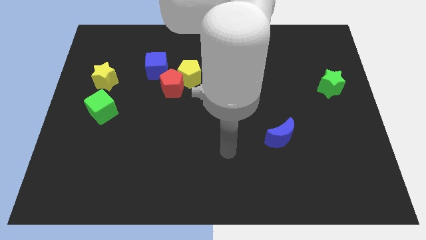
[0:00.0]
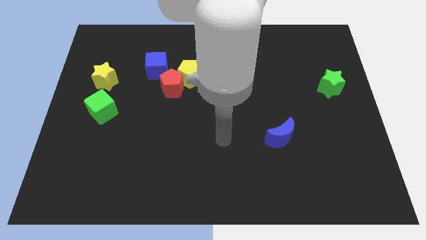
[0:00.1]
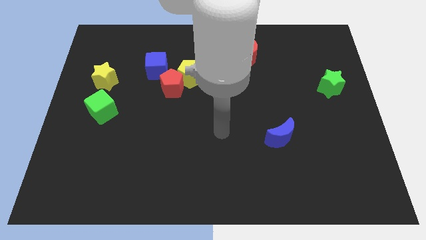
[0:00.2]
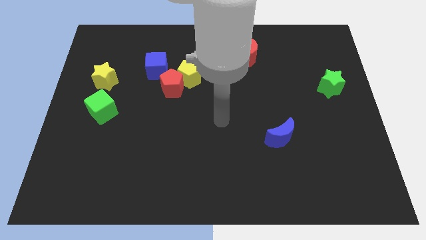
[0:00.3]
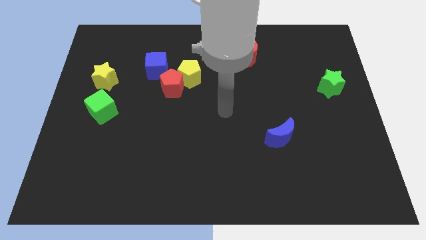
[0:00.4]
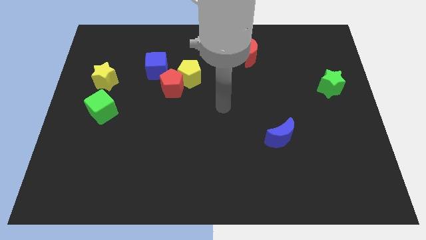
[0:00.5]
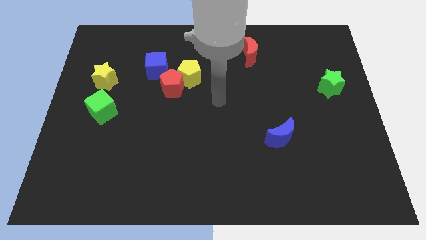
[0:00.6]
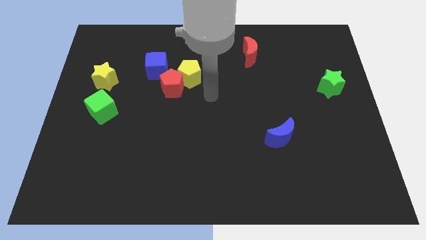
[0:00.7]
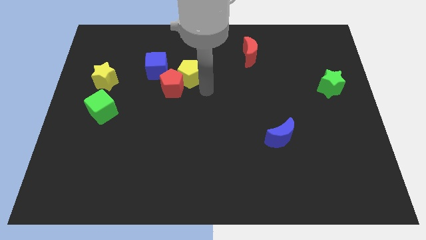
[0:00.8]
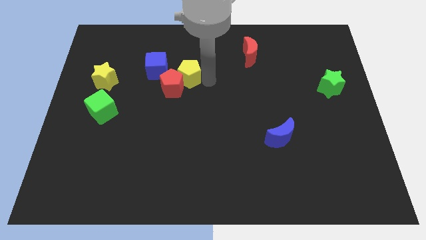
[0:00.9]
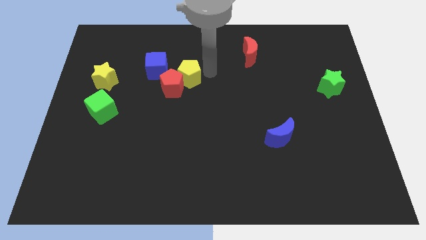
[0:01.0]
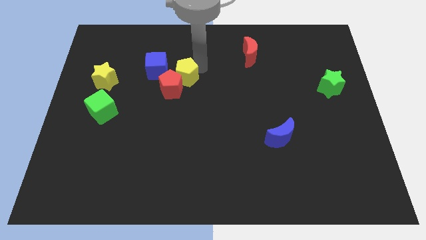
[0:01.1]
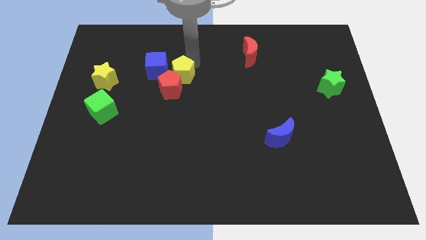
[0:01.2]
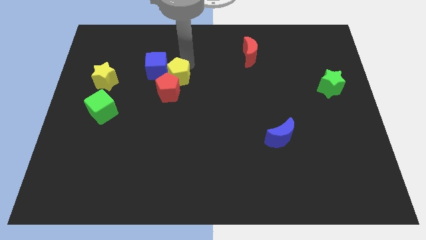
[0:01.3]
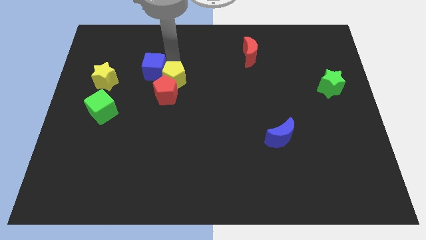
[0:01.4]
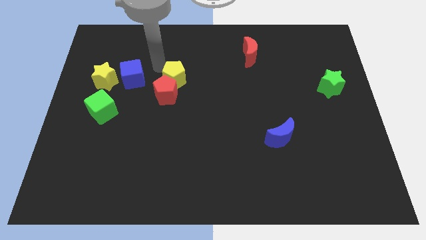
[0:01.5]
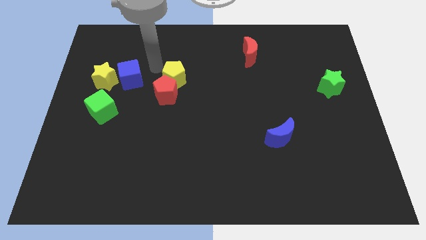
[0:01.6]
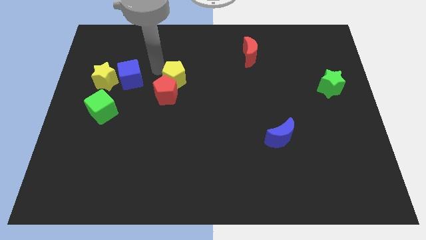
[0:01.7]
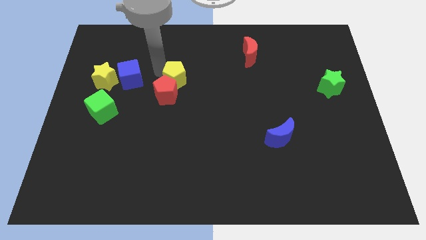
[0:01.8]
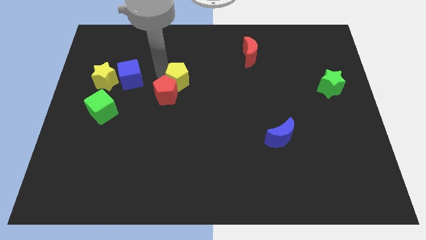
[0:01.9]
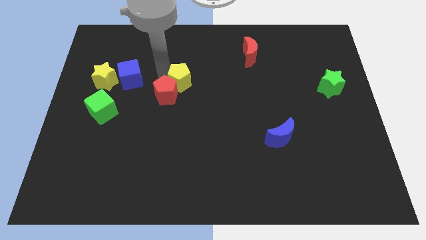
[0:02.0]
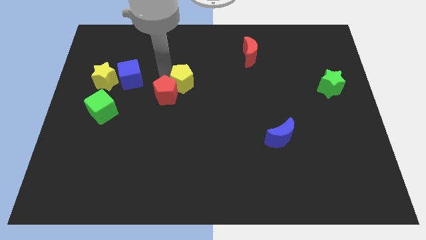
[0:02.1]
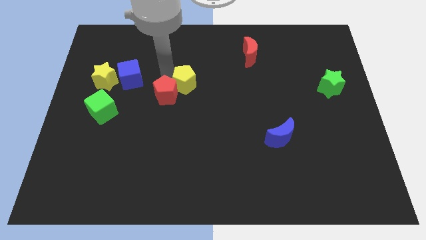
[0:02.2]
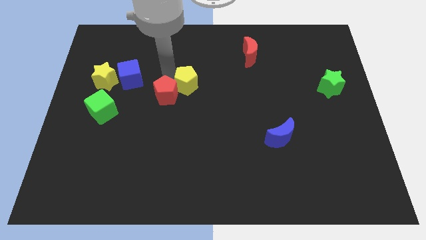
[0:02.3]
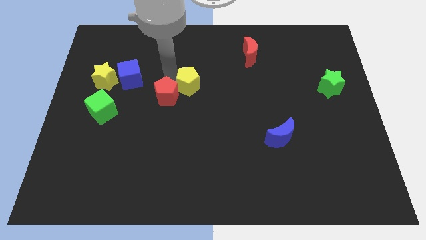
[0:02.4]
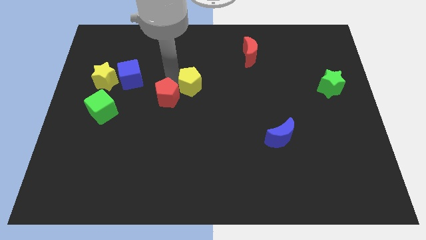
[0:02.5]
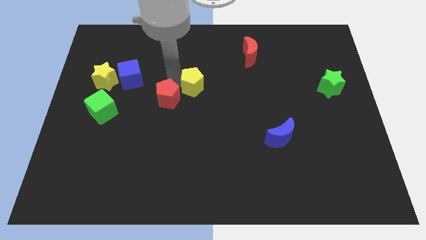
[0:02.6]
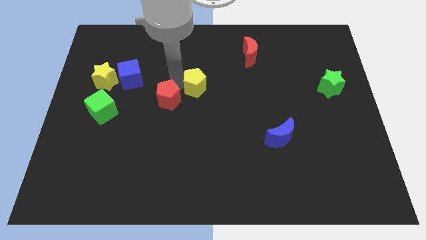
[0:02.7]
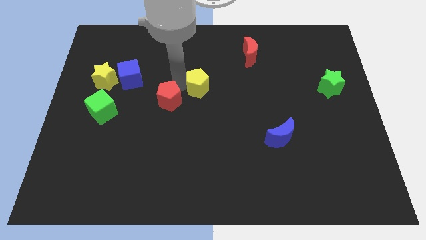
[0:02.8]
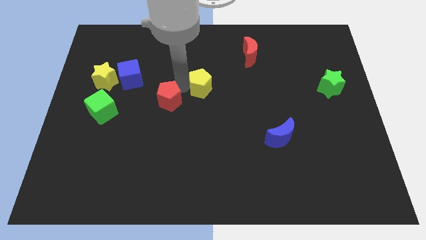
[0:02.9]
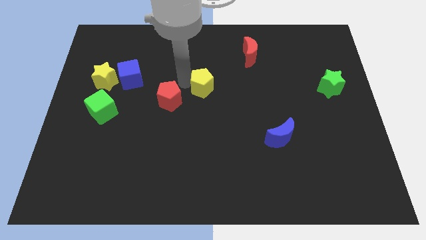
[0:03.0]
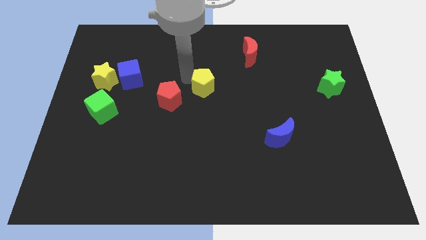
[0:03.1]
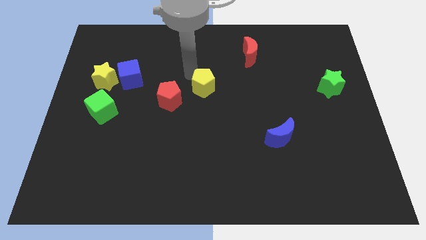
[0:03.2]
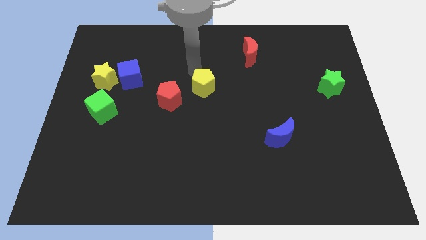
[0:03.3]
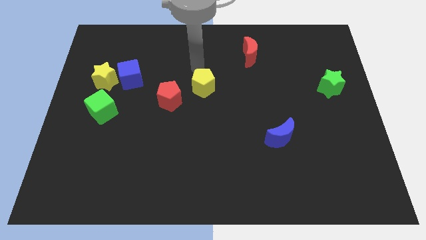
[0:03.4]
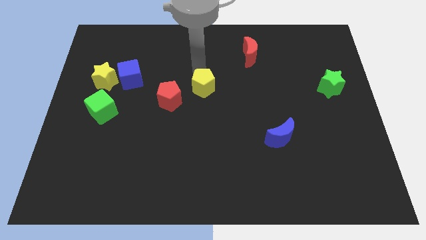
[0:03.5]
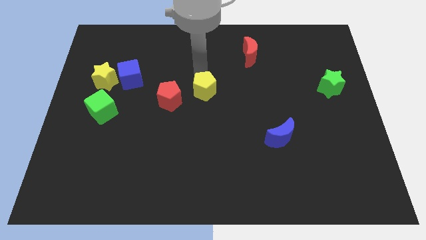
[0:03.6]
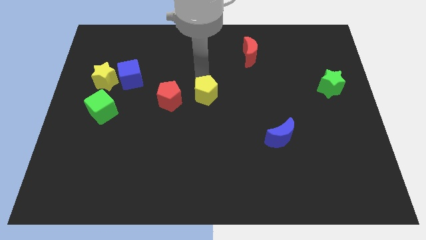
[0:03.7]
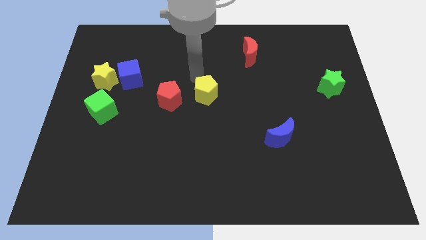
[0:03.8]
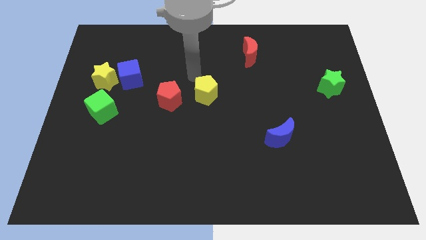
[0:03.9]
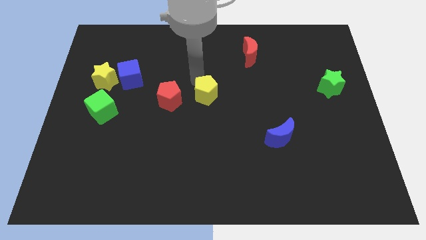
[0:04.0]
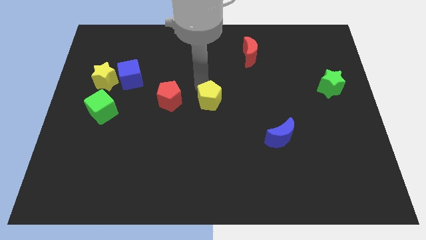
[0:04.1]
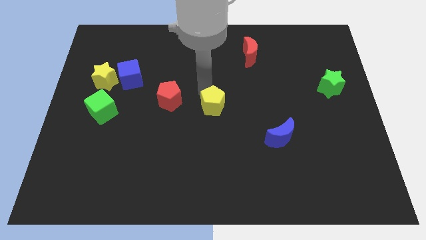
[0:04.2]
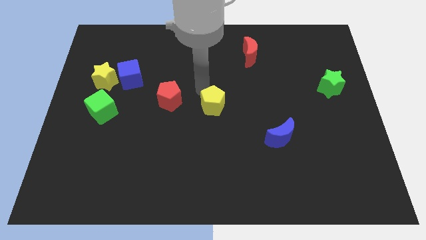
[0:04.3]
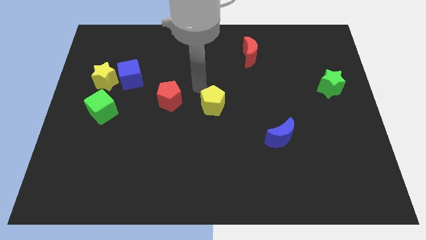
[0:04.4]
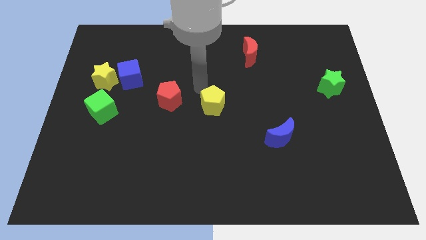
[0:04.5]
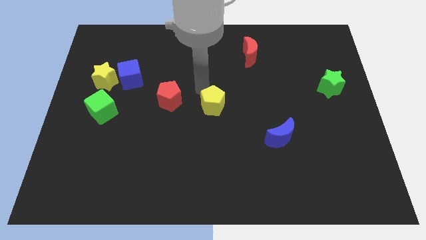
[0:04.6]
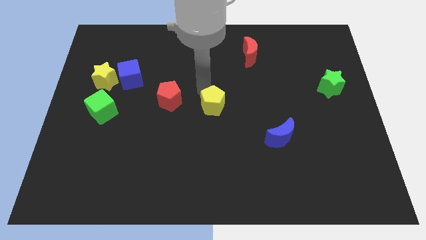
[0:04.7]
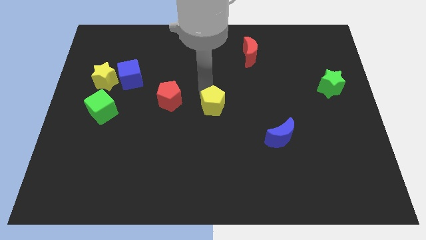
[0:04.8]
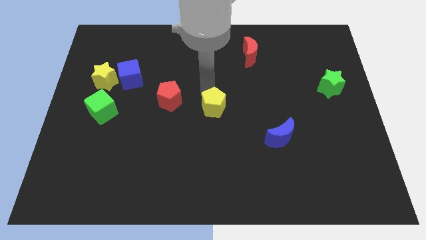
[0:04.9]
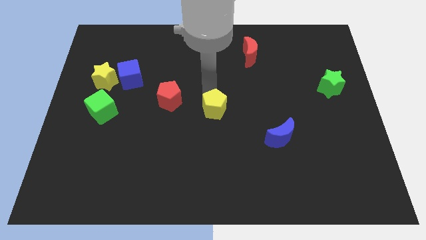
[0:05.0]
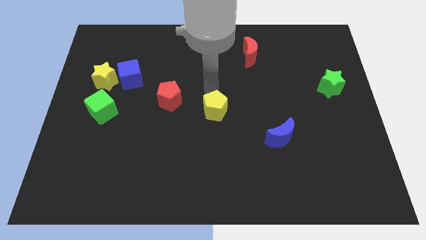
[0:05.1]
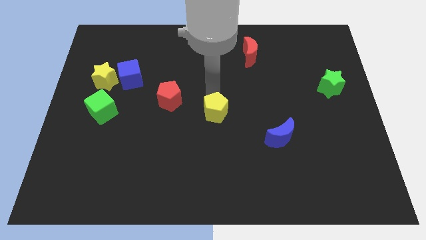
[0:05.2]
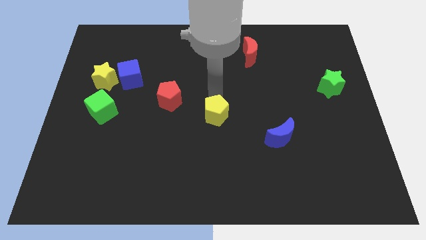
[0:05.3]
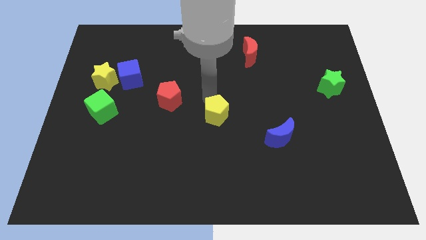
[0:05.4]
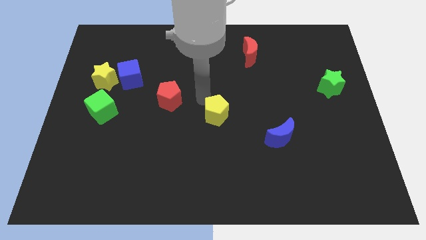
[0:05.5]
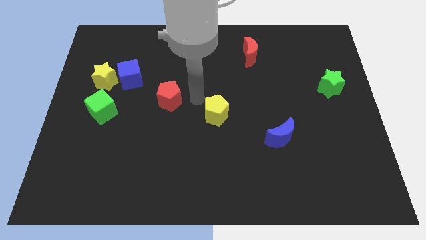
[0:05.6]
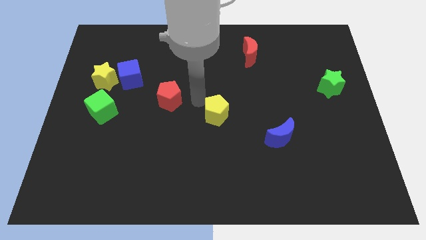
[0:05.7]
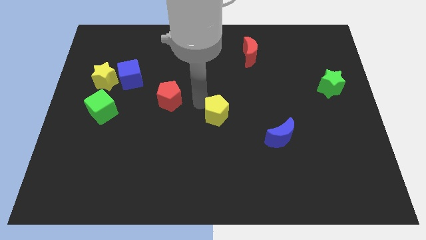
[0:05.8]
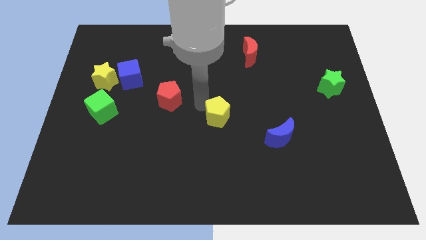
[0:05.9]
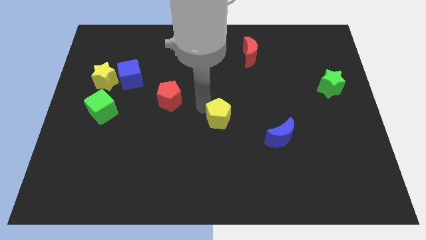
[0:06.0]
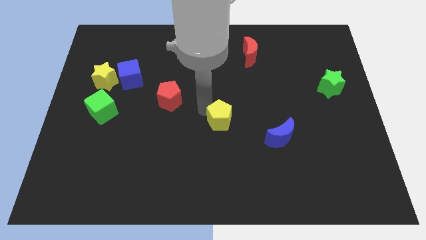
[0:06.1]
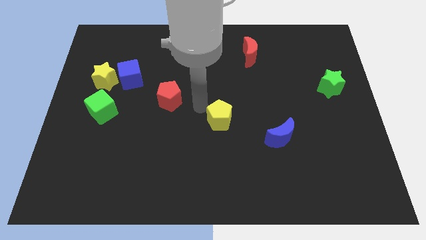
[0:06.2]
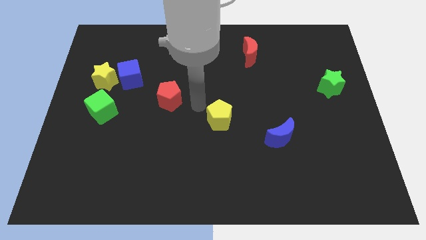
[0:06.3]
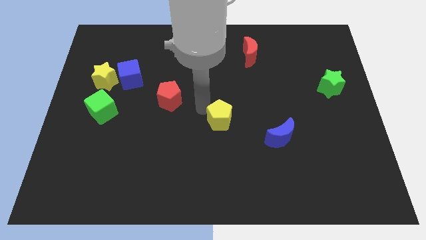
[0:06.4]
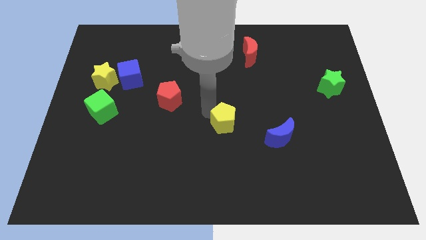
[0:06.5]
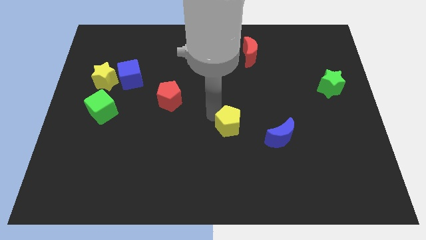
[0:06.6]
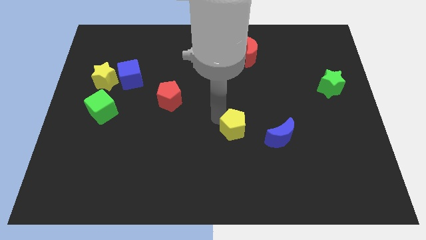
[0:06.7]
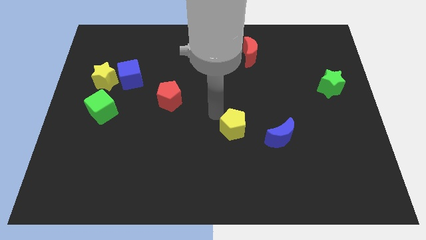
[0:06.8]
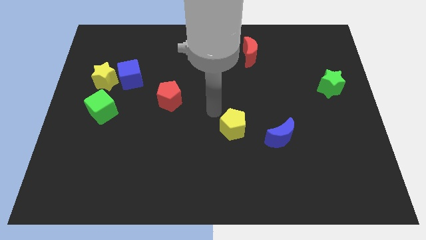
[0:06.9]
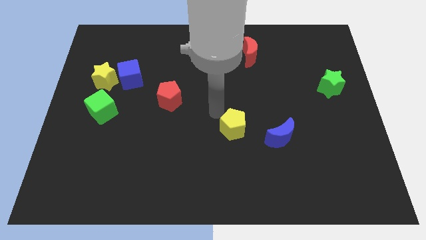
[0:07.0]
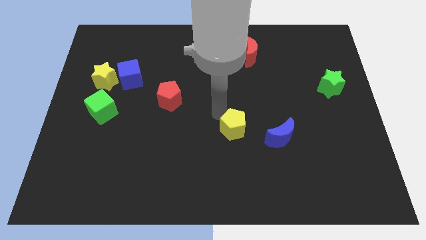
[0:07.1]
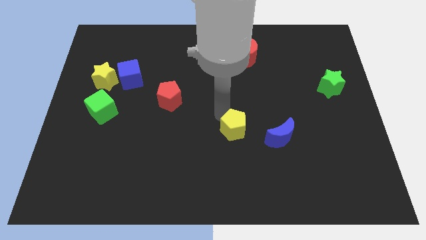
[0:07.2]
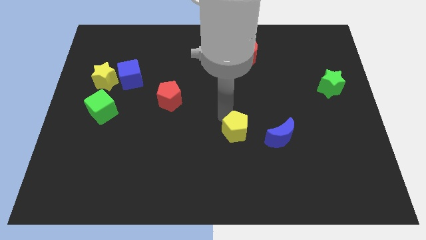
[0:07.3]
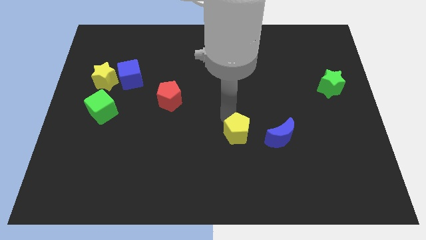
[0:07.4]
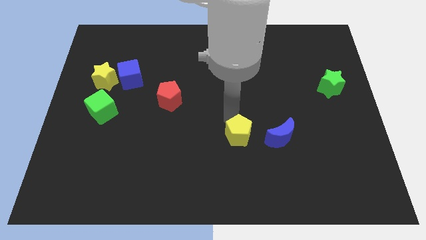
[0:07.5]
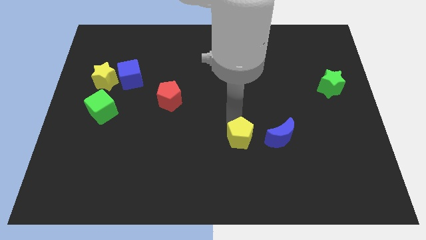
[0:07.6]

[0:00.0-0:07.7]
push the yellow pentagon down and then to the right

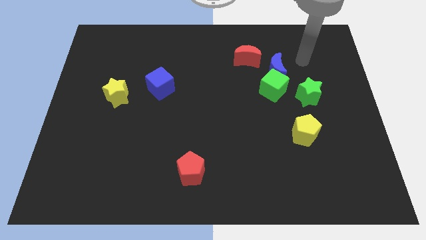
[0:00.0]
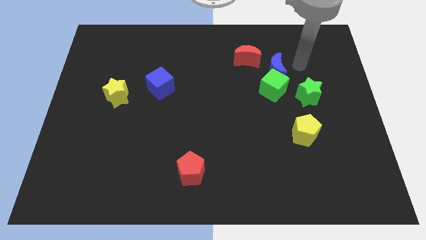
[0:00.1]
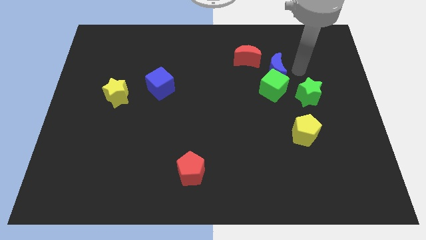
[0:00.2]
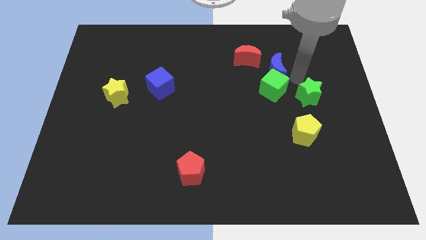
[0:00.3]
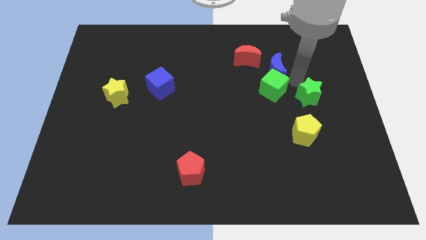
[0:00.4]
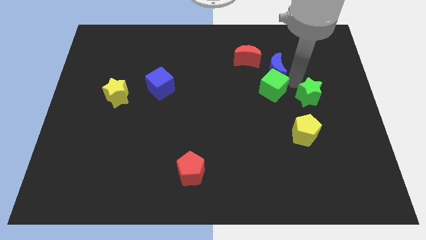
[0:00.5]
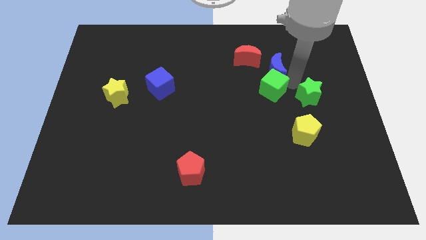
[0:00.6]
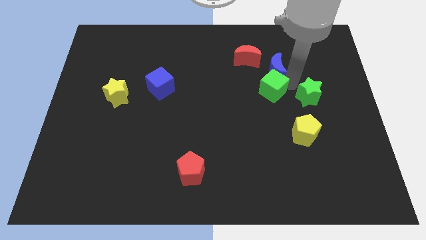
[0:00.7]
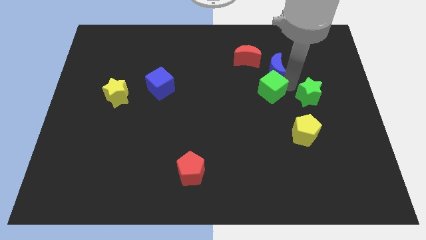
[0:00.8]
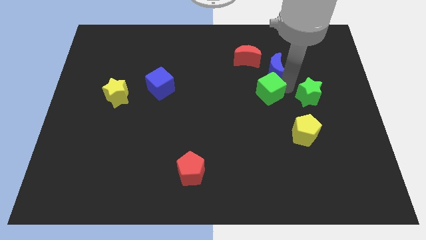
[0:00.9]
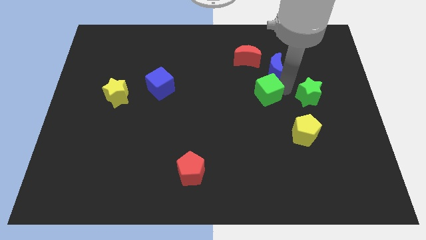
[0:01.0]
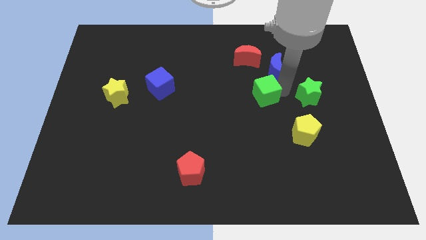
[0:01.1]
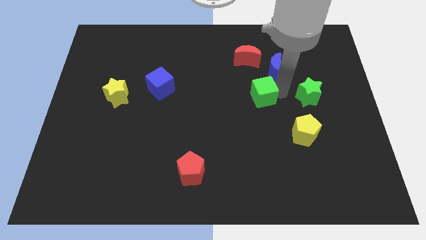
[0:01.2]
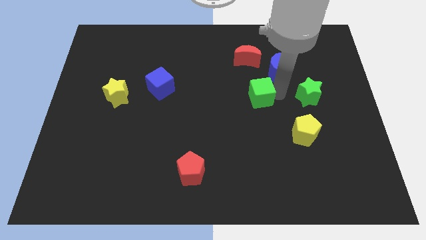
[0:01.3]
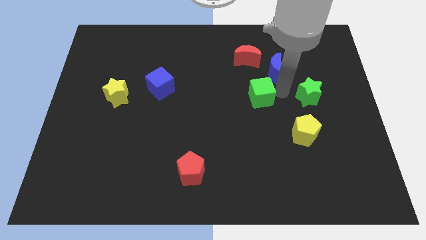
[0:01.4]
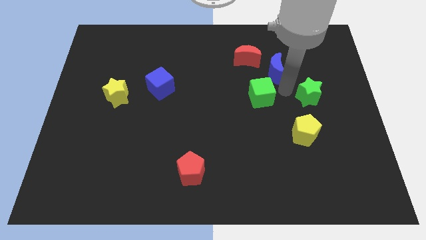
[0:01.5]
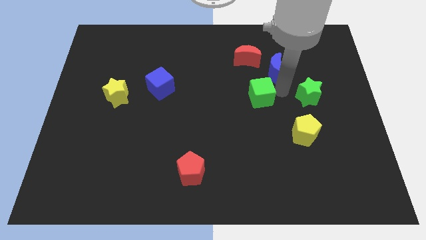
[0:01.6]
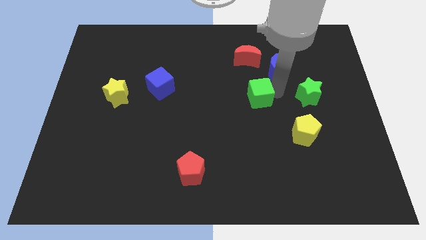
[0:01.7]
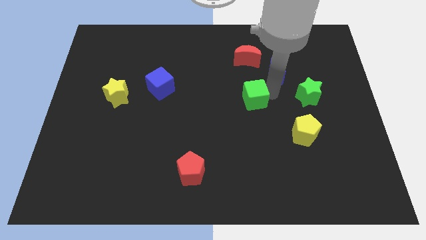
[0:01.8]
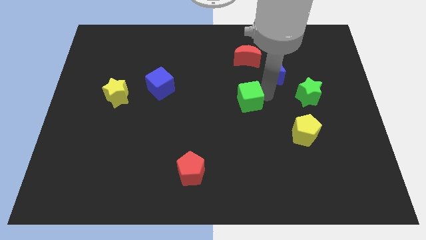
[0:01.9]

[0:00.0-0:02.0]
slightly slide the green cube diagonally downwards and to the left
